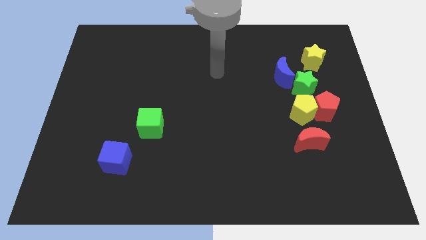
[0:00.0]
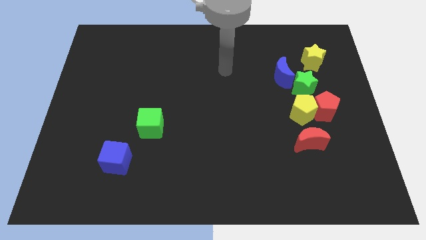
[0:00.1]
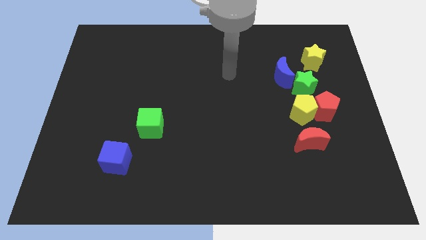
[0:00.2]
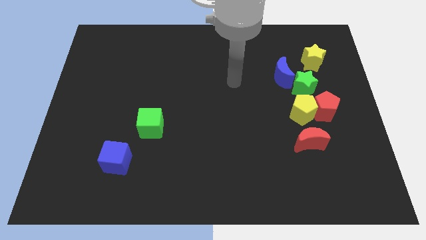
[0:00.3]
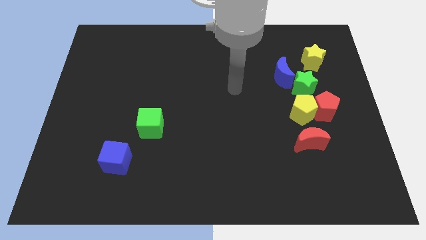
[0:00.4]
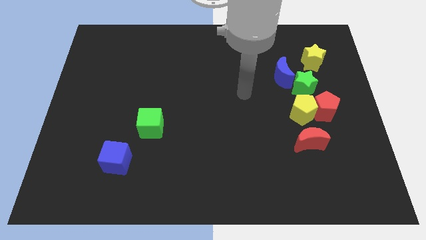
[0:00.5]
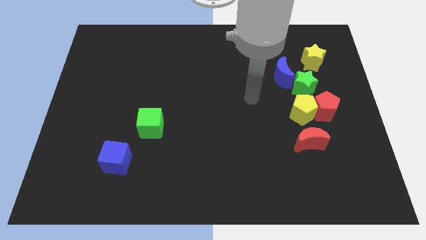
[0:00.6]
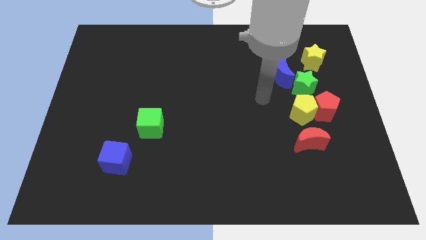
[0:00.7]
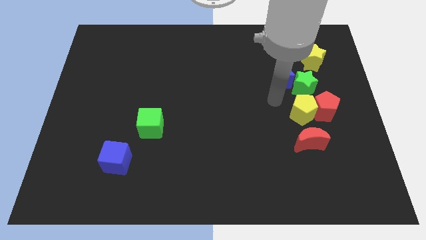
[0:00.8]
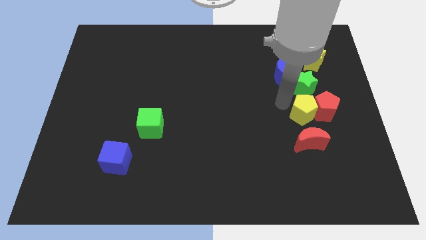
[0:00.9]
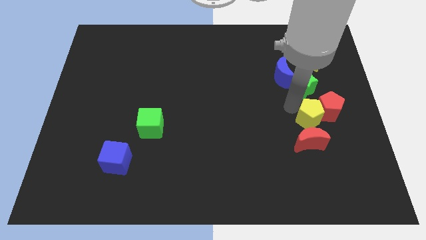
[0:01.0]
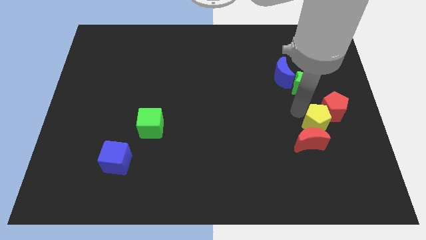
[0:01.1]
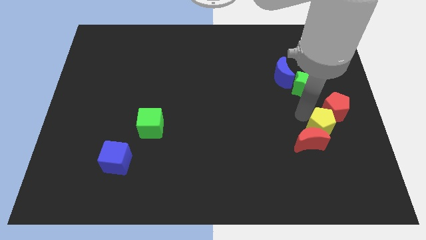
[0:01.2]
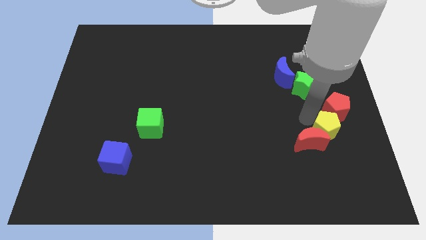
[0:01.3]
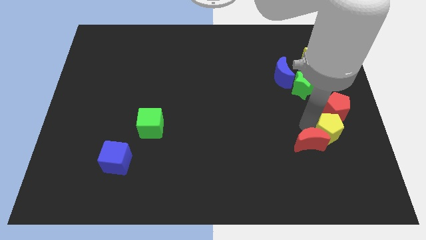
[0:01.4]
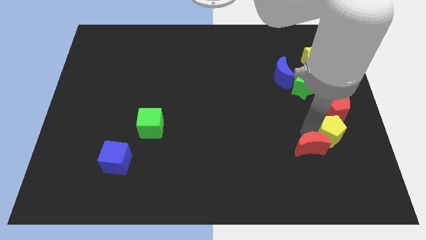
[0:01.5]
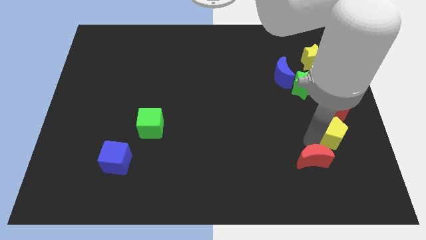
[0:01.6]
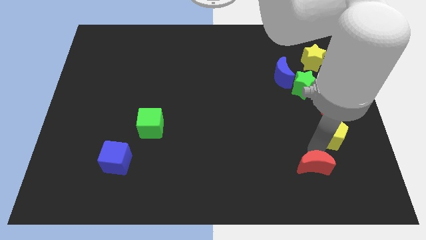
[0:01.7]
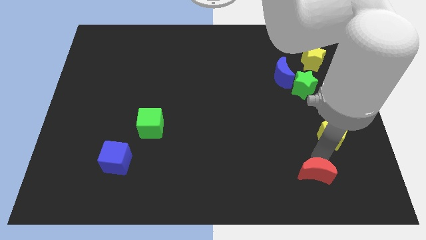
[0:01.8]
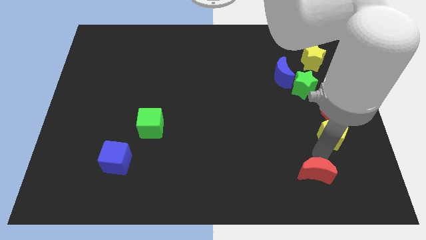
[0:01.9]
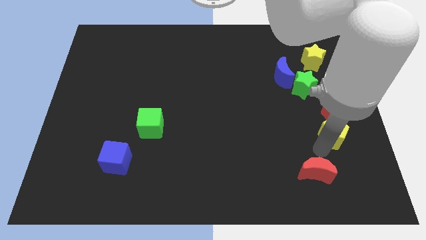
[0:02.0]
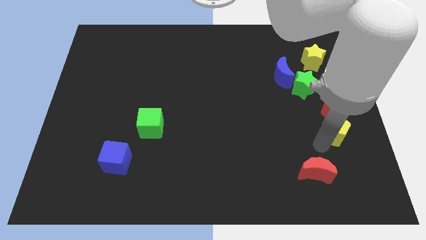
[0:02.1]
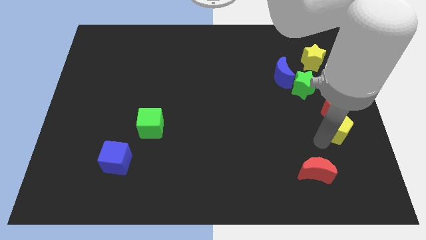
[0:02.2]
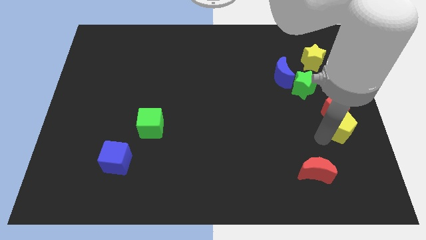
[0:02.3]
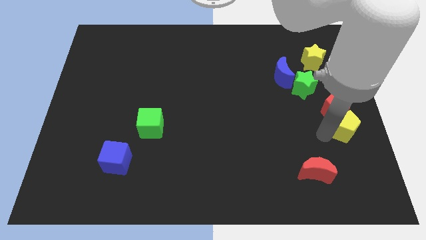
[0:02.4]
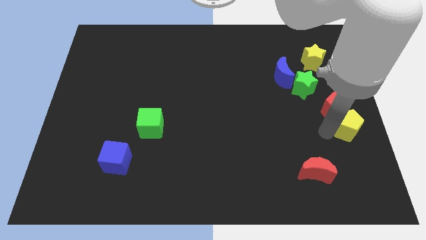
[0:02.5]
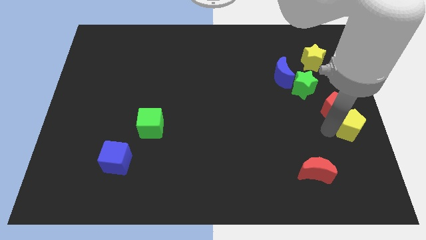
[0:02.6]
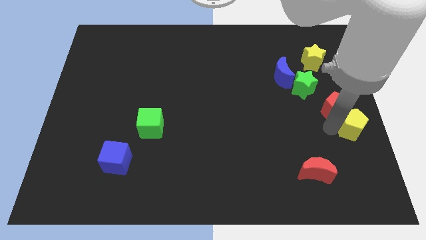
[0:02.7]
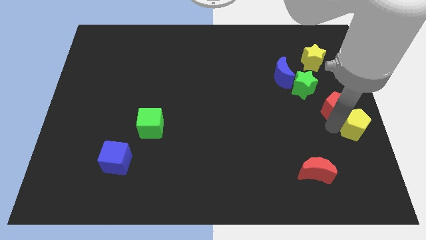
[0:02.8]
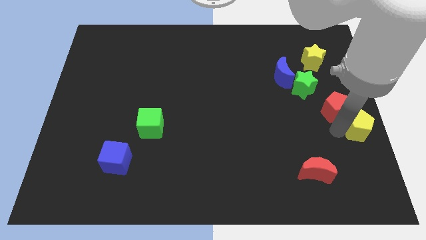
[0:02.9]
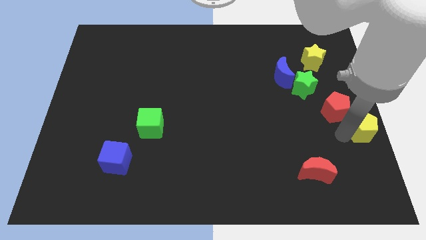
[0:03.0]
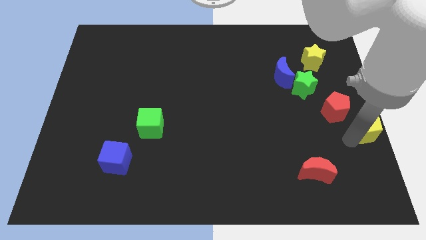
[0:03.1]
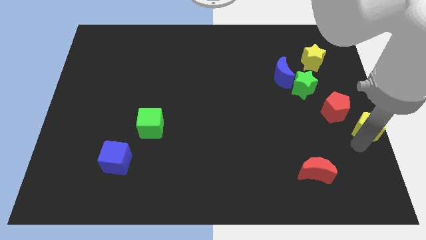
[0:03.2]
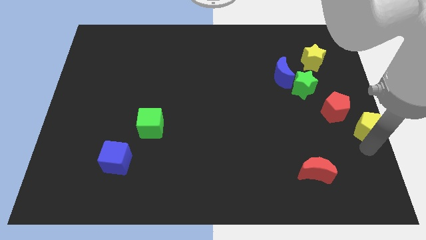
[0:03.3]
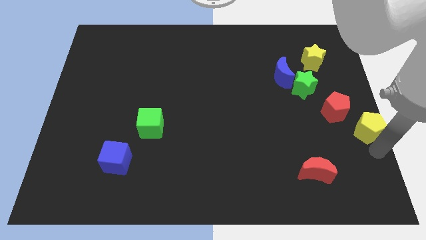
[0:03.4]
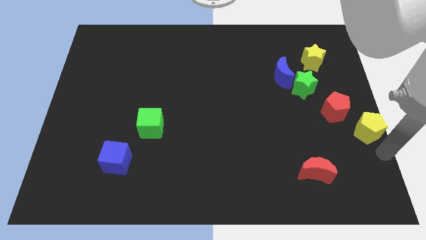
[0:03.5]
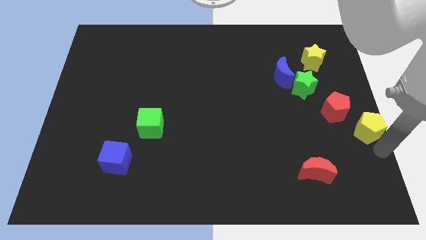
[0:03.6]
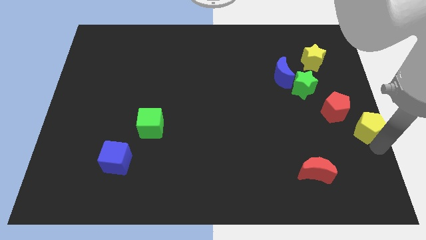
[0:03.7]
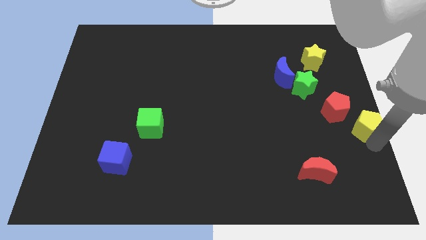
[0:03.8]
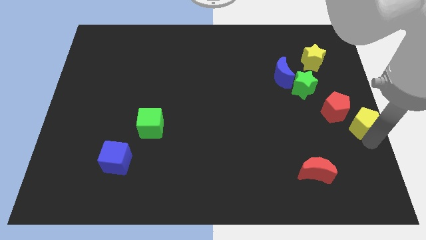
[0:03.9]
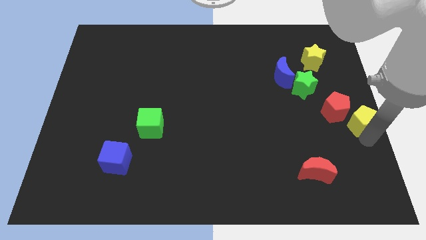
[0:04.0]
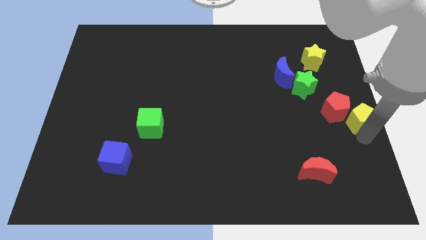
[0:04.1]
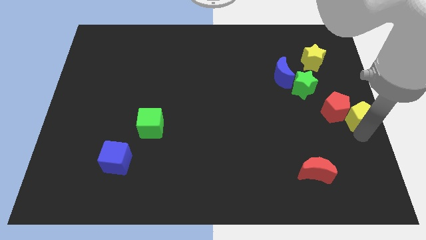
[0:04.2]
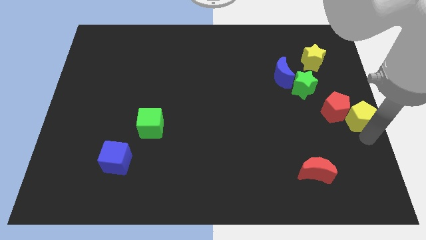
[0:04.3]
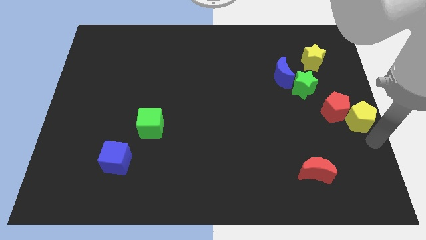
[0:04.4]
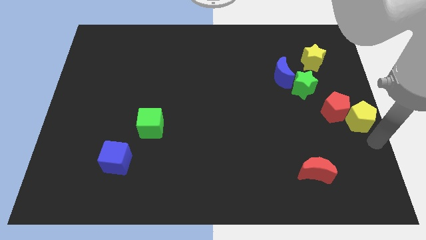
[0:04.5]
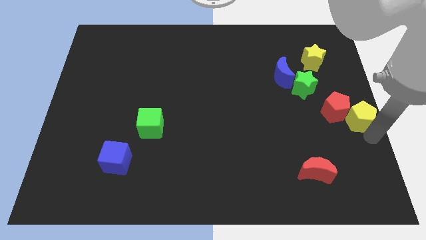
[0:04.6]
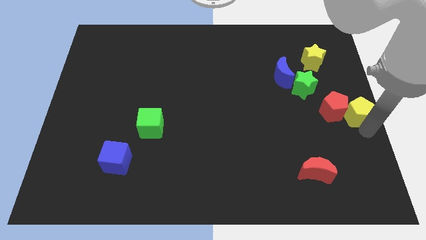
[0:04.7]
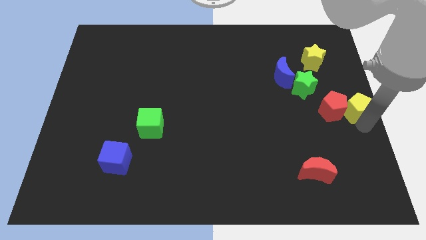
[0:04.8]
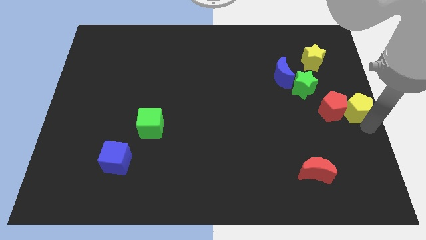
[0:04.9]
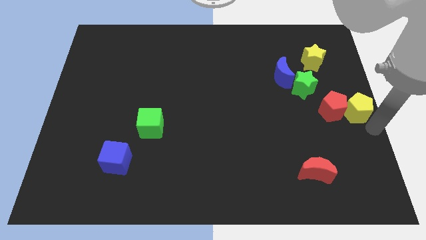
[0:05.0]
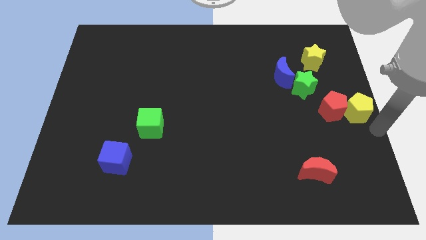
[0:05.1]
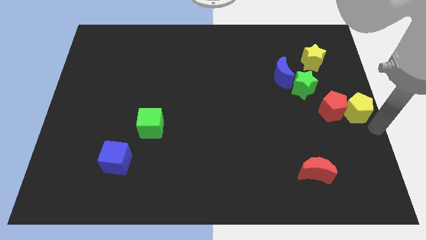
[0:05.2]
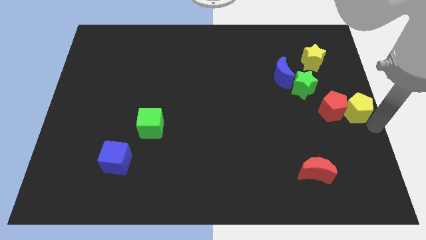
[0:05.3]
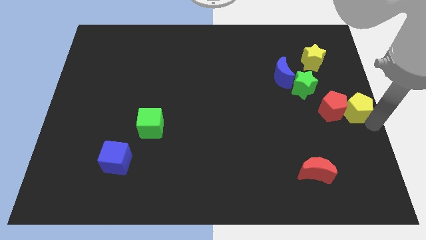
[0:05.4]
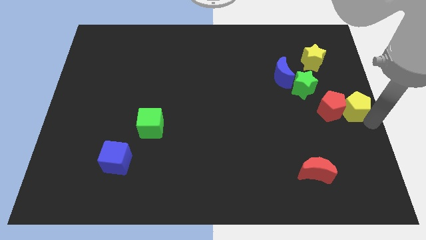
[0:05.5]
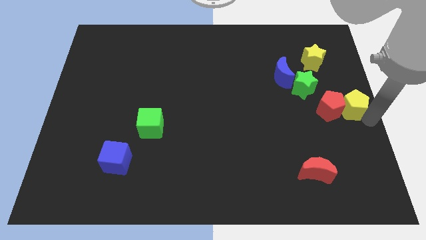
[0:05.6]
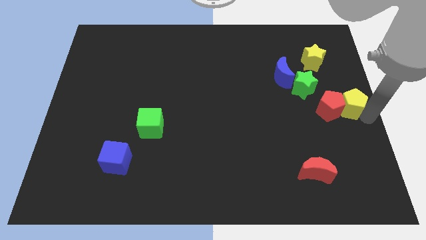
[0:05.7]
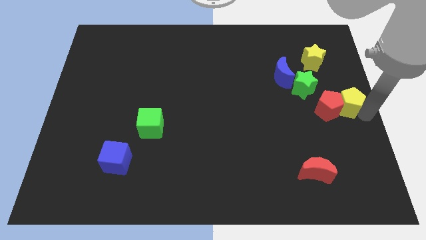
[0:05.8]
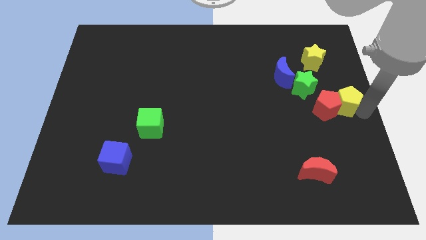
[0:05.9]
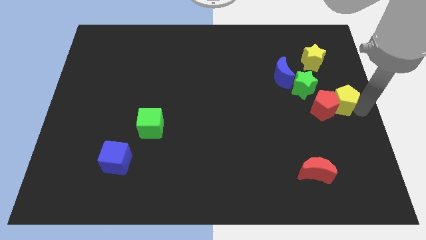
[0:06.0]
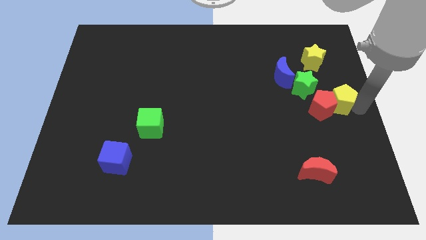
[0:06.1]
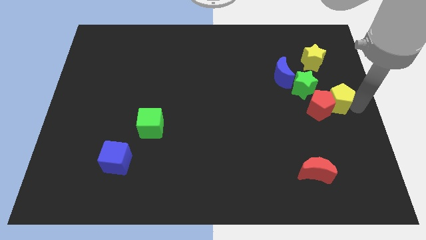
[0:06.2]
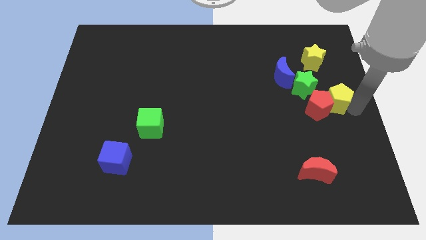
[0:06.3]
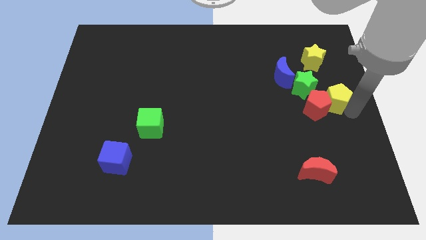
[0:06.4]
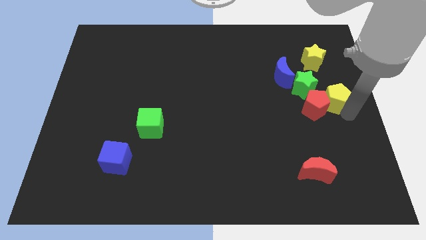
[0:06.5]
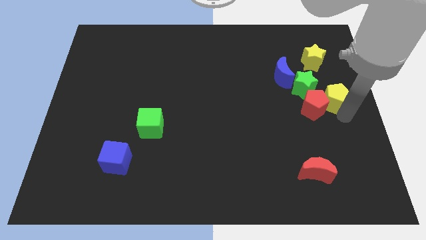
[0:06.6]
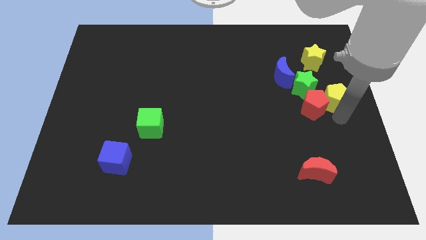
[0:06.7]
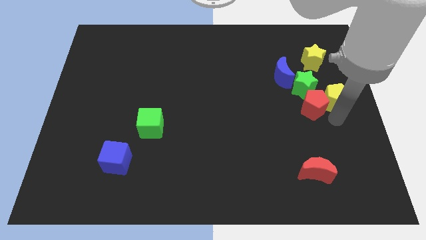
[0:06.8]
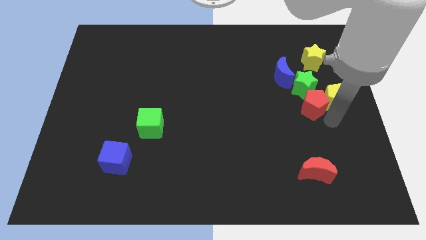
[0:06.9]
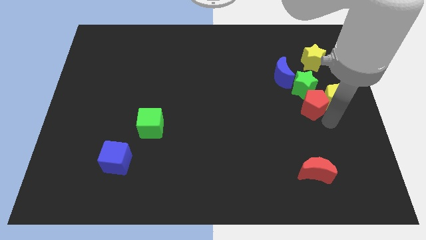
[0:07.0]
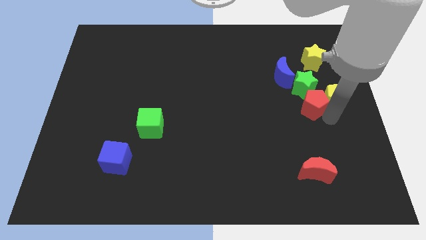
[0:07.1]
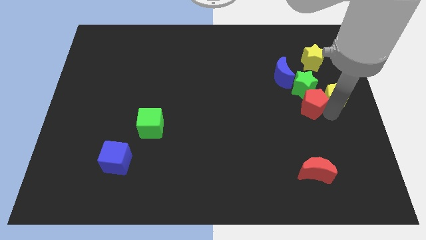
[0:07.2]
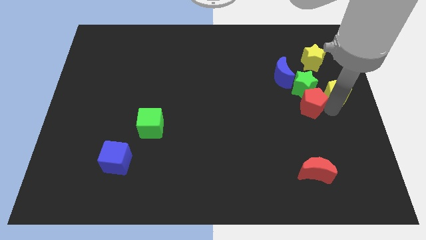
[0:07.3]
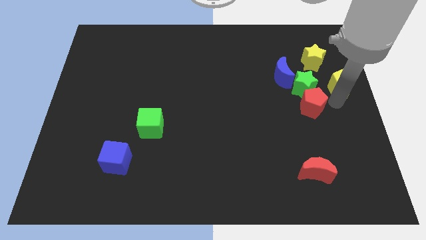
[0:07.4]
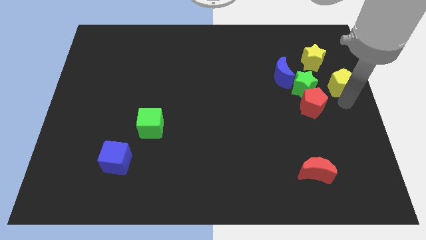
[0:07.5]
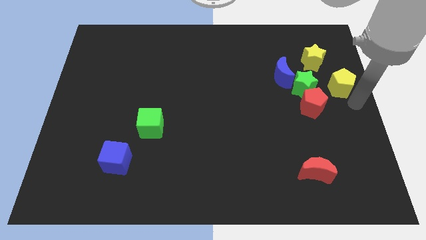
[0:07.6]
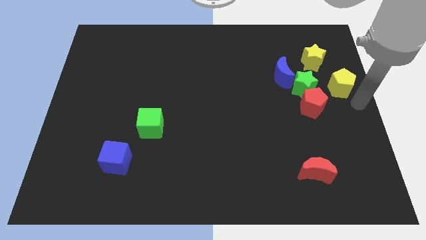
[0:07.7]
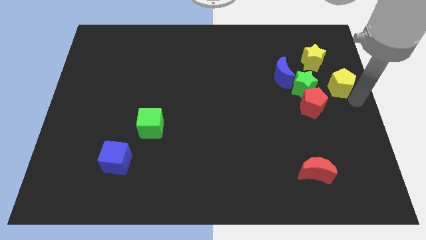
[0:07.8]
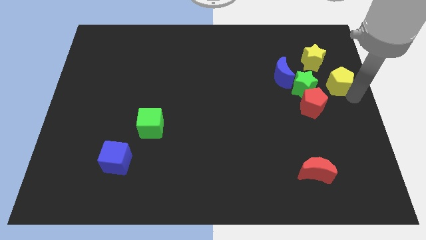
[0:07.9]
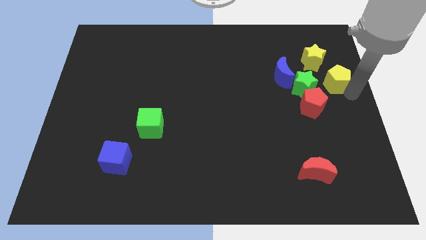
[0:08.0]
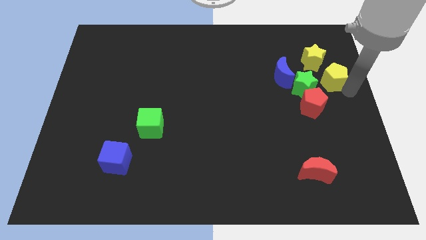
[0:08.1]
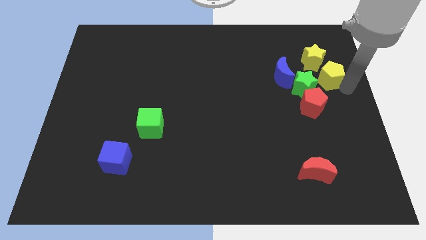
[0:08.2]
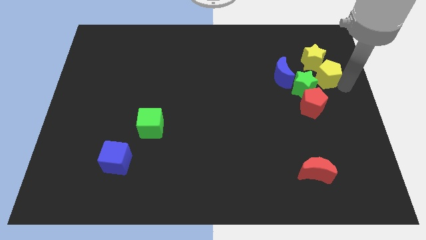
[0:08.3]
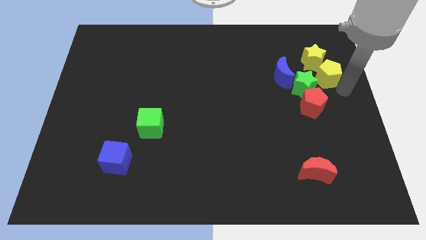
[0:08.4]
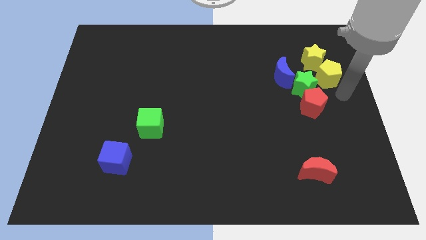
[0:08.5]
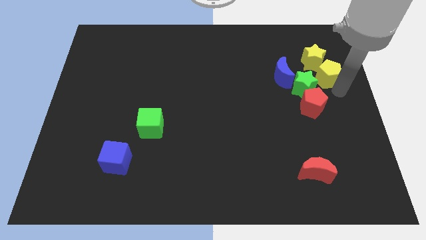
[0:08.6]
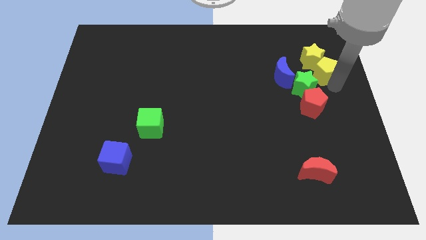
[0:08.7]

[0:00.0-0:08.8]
slide the yellow pentagon close to the yellow star
